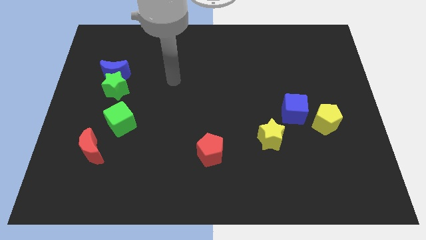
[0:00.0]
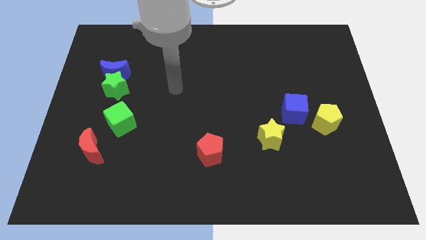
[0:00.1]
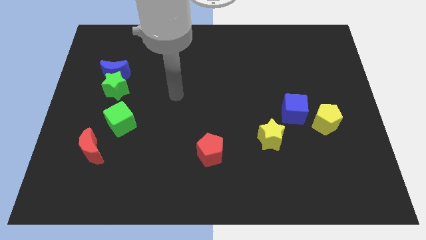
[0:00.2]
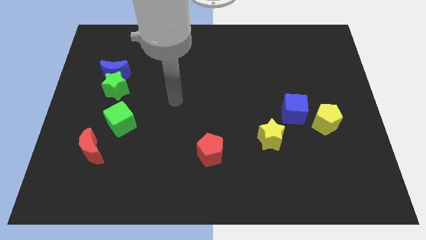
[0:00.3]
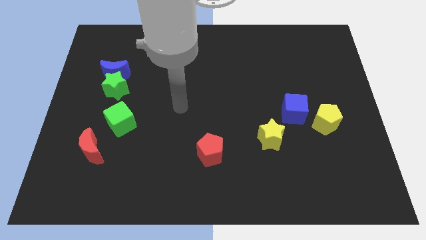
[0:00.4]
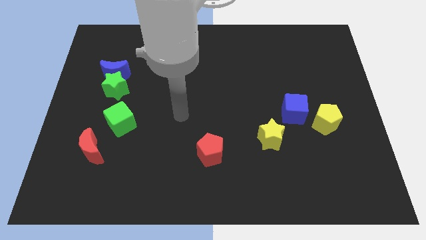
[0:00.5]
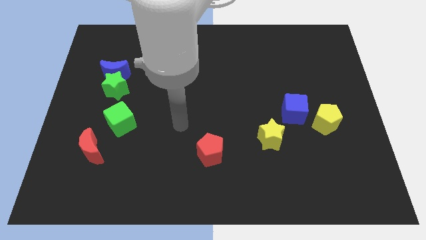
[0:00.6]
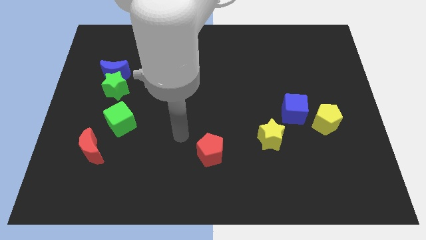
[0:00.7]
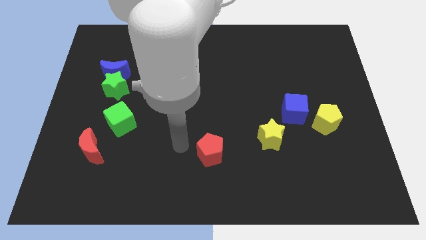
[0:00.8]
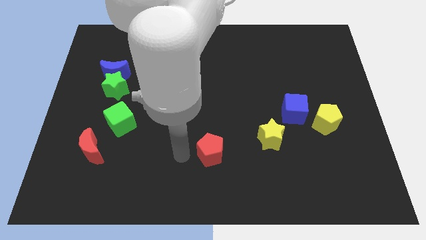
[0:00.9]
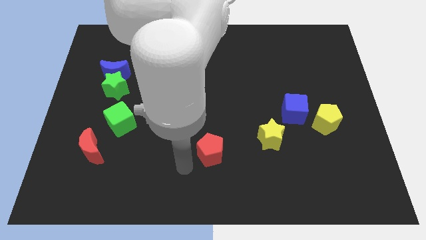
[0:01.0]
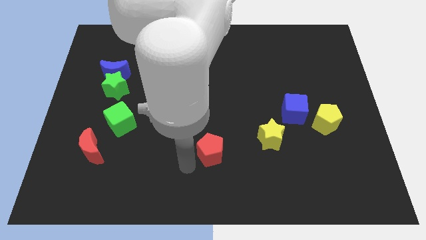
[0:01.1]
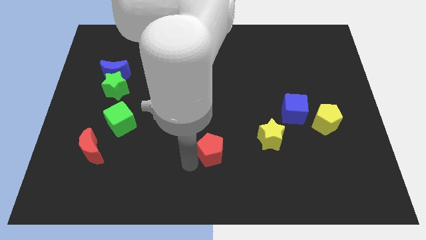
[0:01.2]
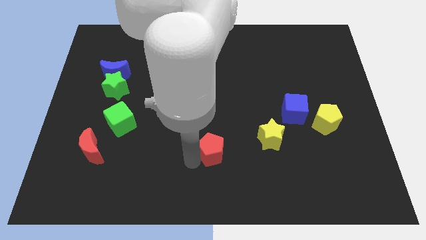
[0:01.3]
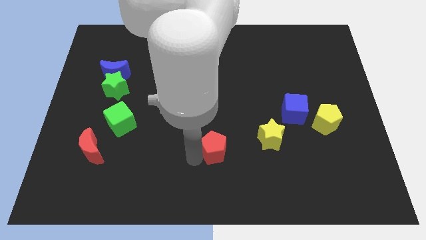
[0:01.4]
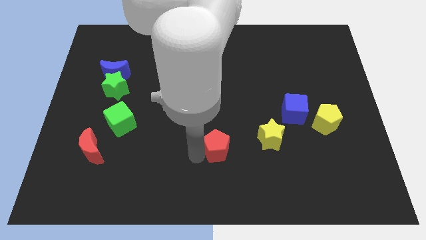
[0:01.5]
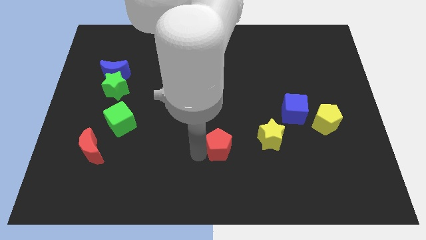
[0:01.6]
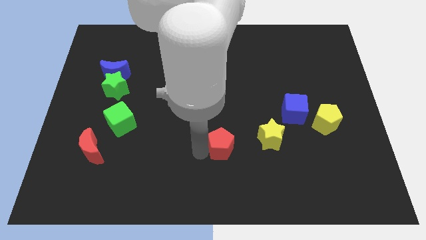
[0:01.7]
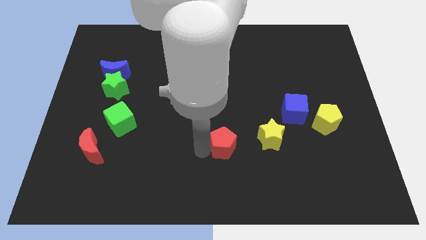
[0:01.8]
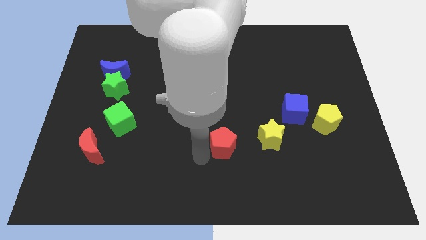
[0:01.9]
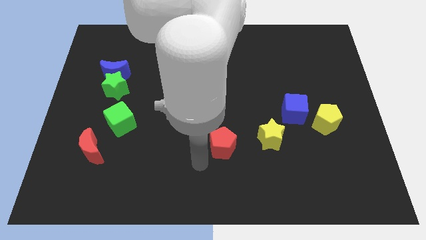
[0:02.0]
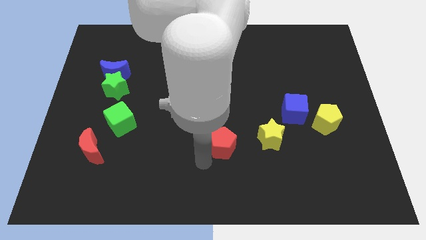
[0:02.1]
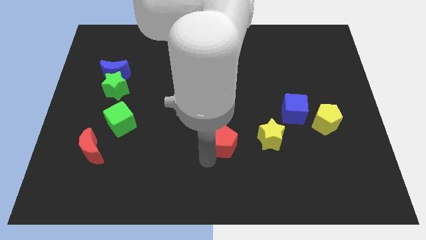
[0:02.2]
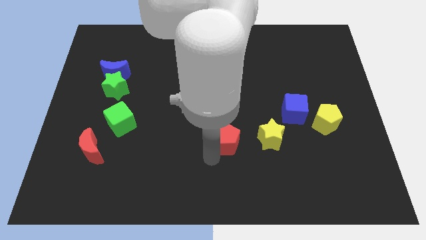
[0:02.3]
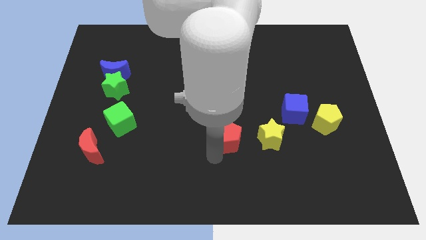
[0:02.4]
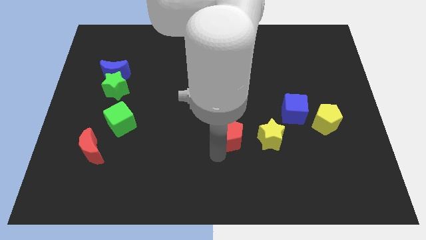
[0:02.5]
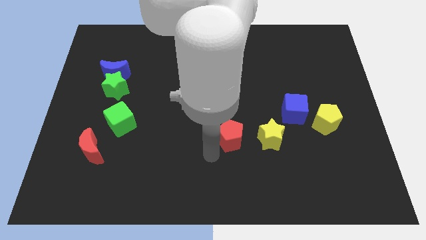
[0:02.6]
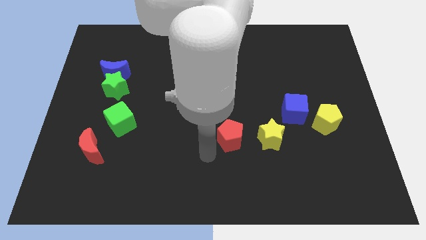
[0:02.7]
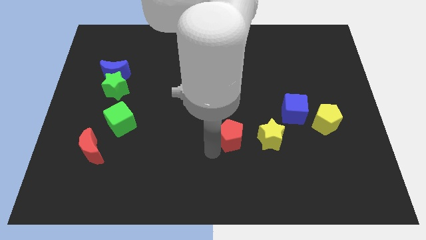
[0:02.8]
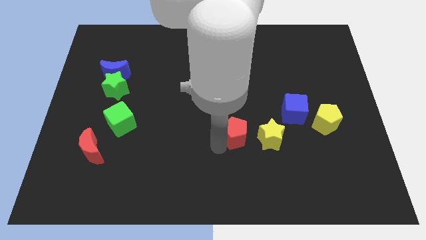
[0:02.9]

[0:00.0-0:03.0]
slightly move the red pentagon diagonally up and right

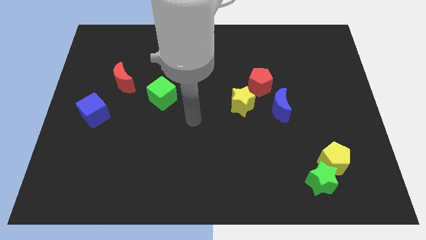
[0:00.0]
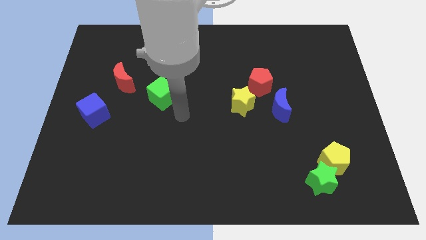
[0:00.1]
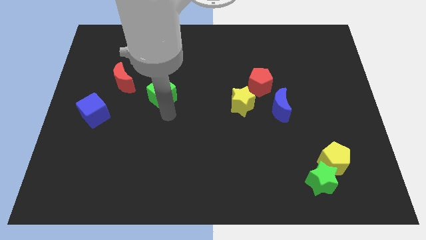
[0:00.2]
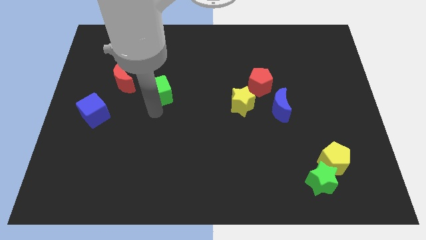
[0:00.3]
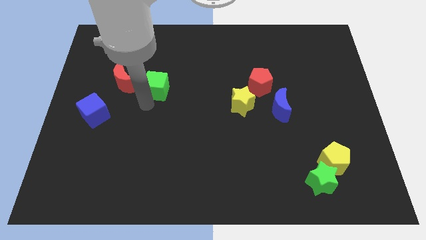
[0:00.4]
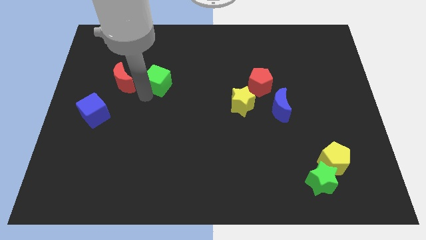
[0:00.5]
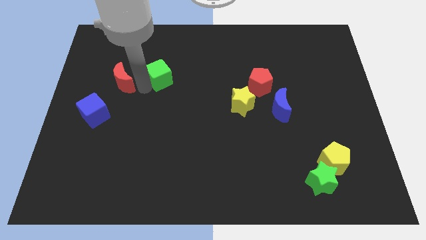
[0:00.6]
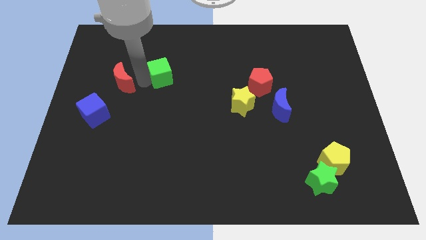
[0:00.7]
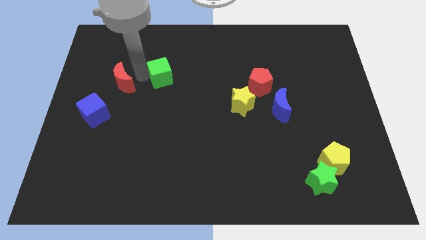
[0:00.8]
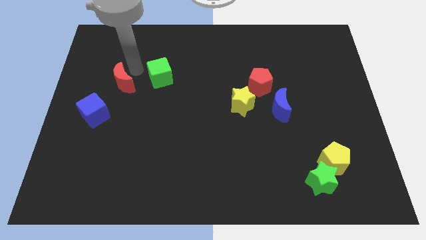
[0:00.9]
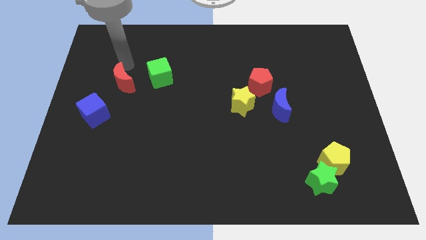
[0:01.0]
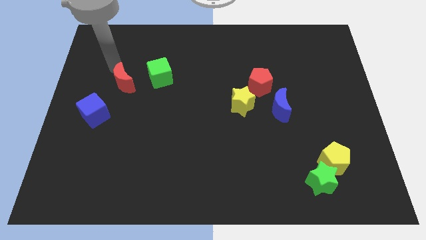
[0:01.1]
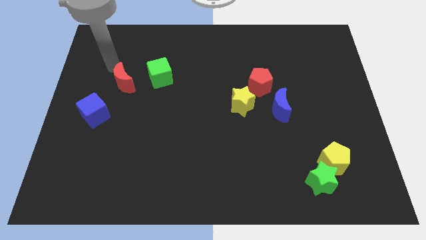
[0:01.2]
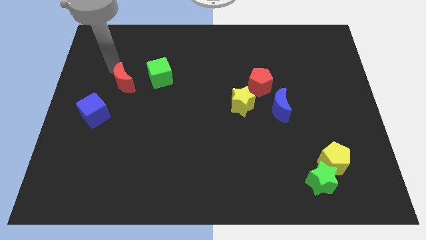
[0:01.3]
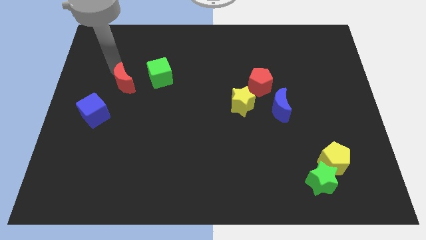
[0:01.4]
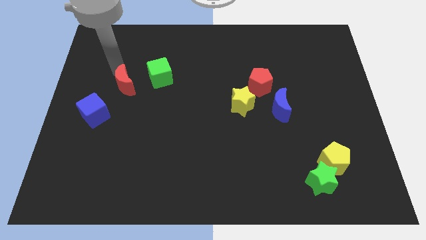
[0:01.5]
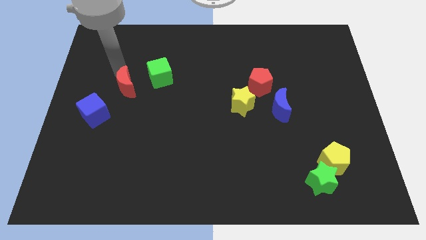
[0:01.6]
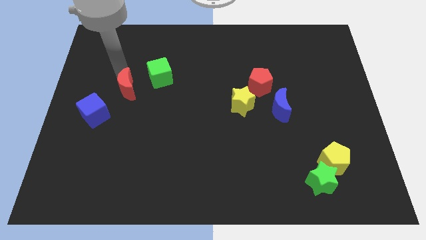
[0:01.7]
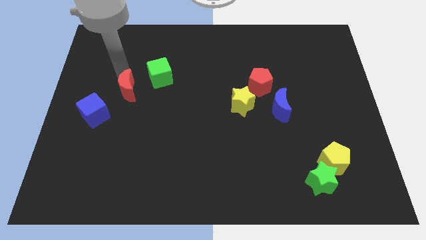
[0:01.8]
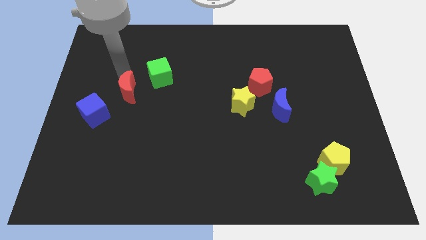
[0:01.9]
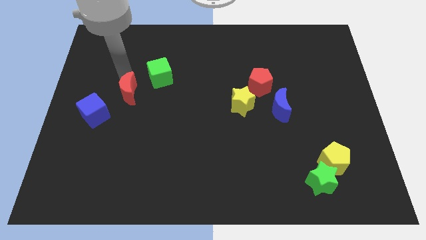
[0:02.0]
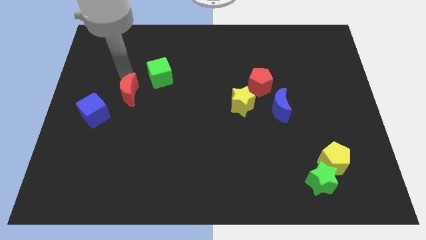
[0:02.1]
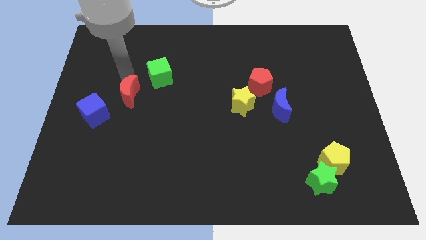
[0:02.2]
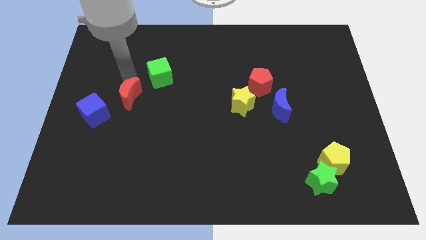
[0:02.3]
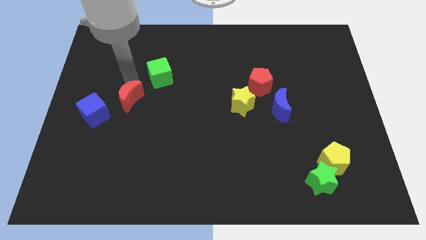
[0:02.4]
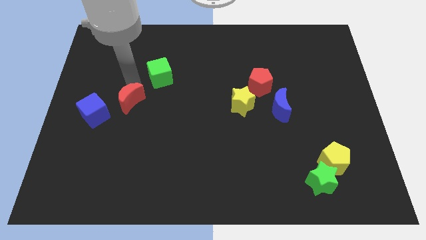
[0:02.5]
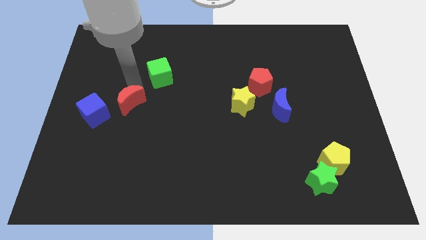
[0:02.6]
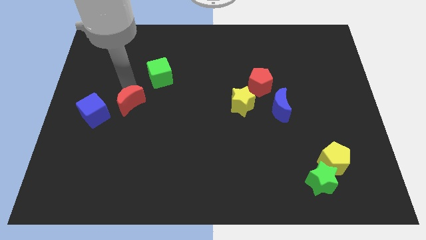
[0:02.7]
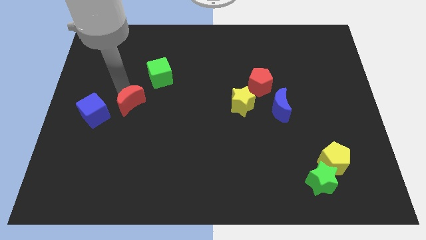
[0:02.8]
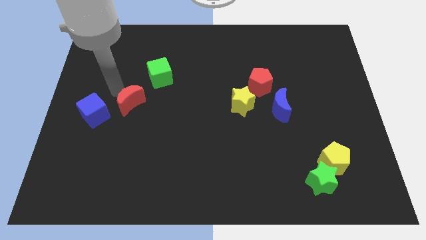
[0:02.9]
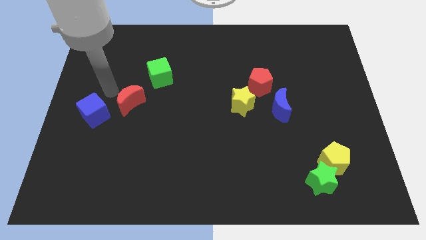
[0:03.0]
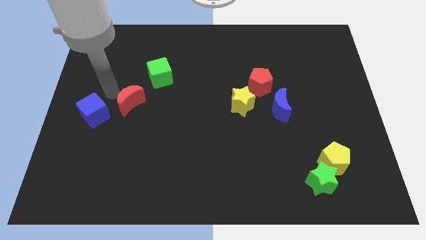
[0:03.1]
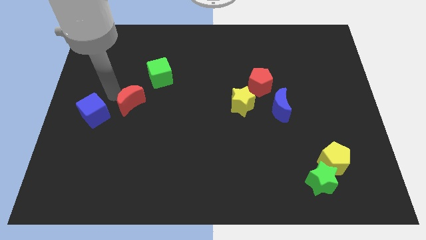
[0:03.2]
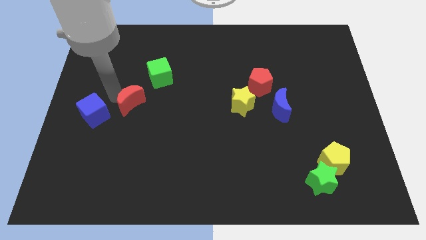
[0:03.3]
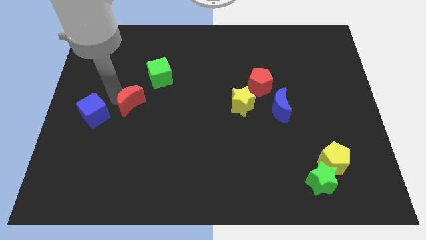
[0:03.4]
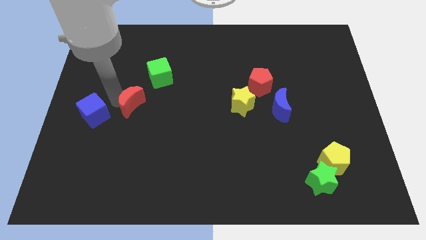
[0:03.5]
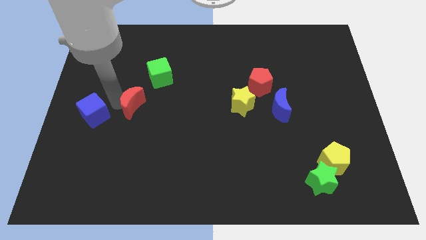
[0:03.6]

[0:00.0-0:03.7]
slide the red moon somewhat diagonally down and to the right

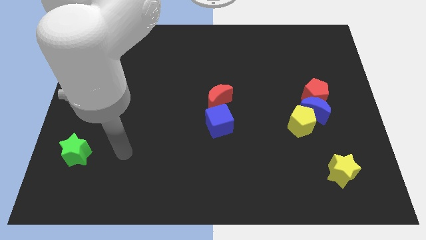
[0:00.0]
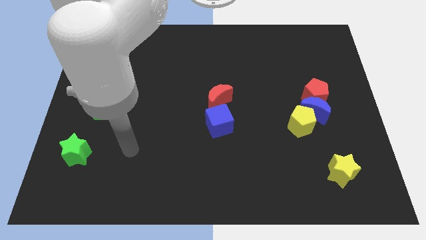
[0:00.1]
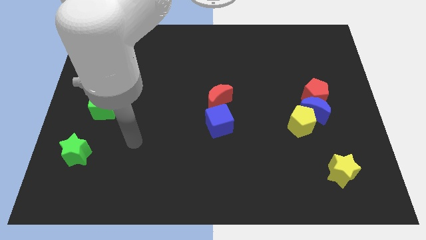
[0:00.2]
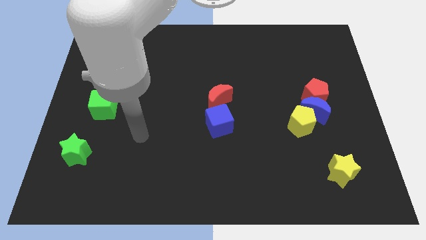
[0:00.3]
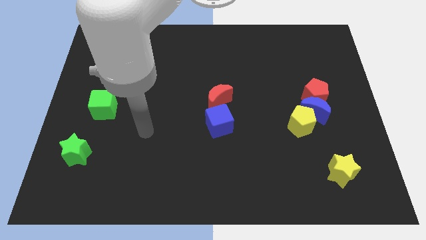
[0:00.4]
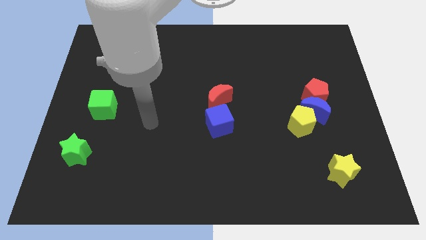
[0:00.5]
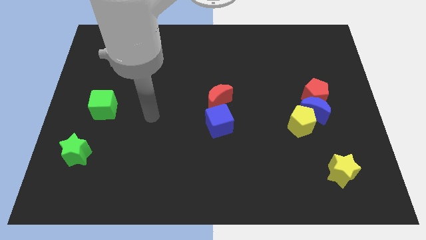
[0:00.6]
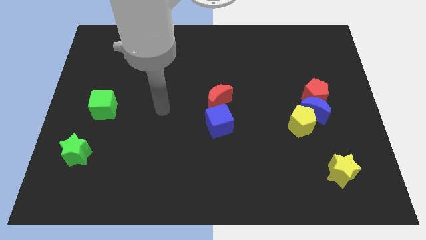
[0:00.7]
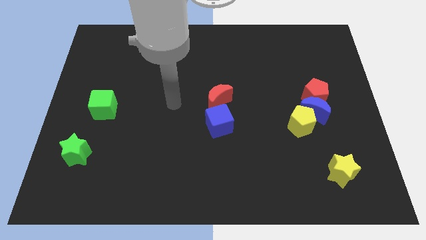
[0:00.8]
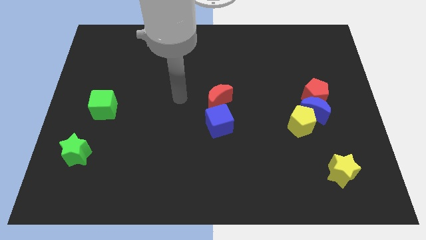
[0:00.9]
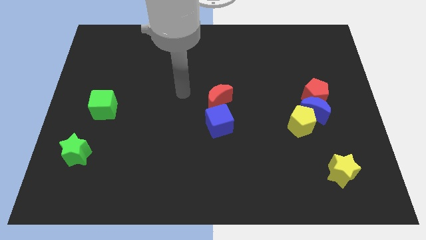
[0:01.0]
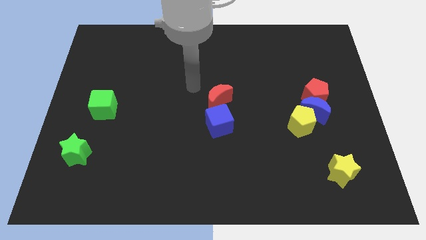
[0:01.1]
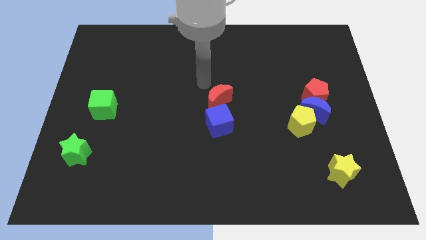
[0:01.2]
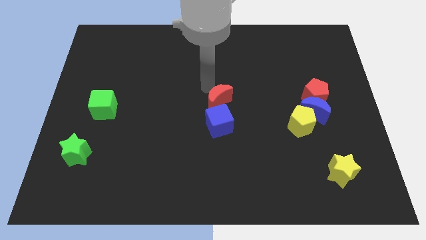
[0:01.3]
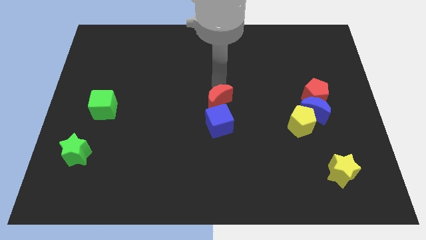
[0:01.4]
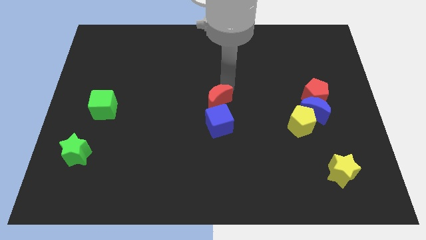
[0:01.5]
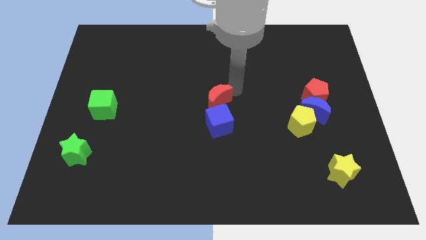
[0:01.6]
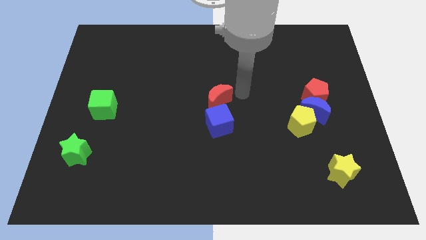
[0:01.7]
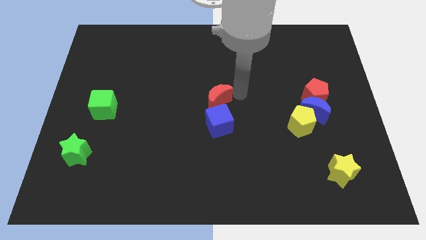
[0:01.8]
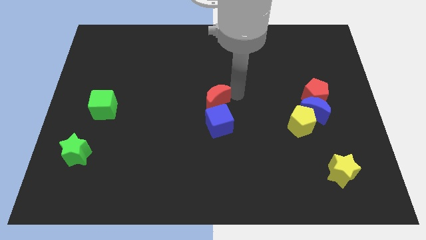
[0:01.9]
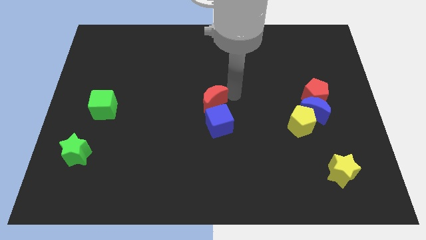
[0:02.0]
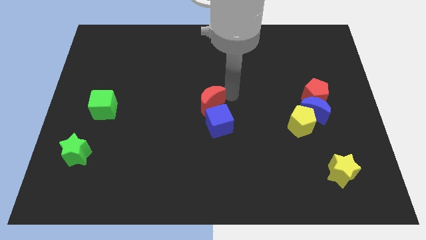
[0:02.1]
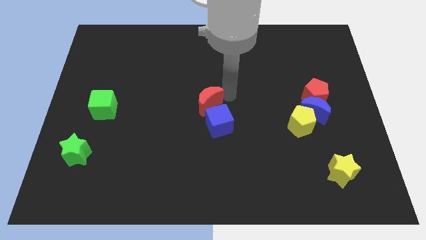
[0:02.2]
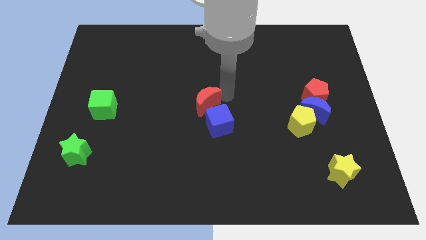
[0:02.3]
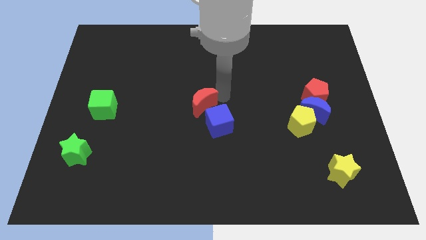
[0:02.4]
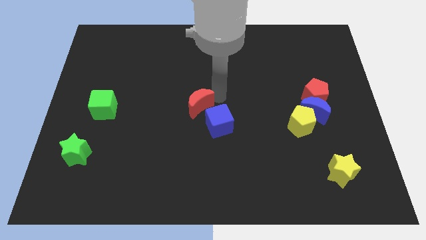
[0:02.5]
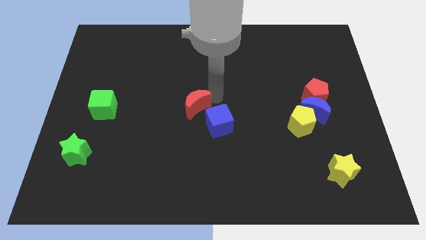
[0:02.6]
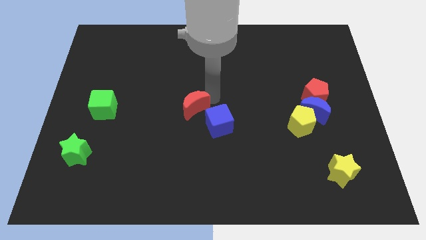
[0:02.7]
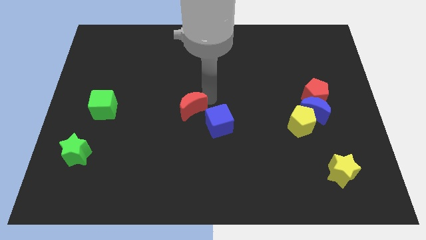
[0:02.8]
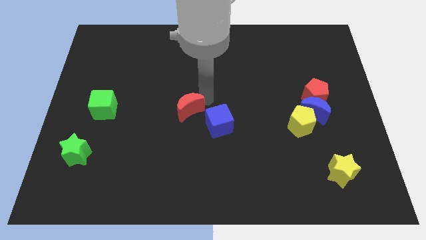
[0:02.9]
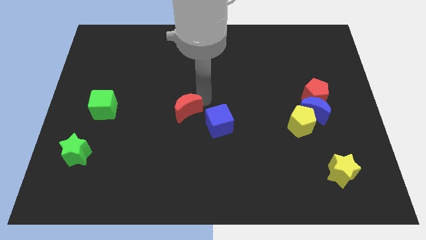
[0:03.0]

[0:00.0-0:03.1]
move the red moon left a bit
